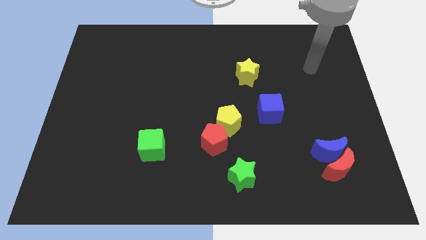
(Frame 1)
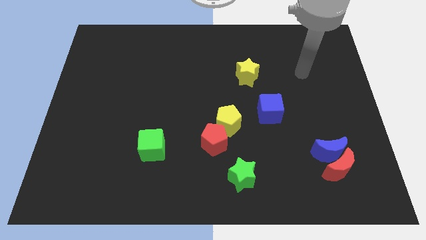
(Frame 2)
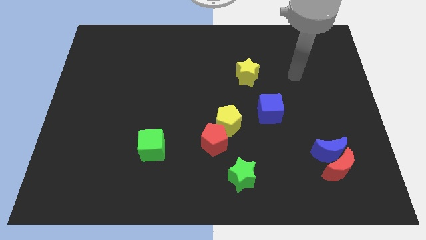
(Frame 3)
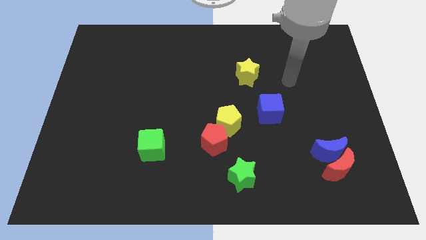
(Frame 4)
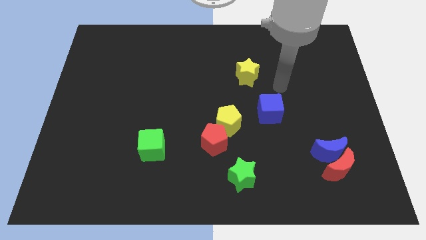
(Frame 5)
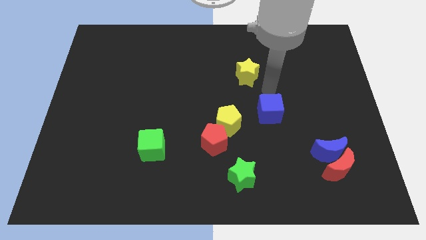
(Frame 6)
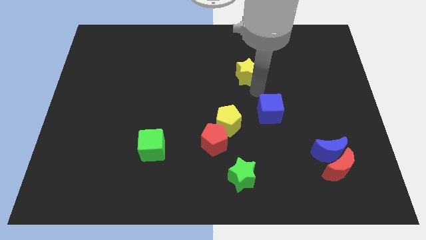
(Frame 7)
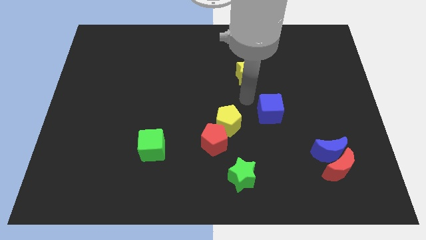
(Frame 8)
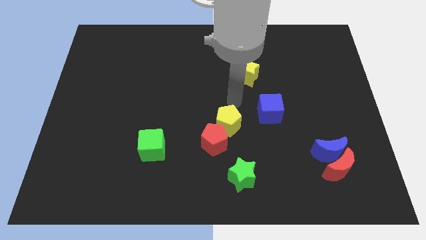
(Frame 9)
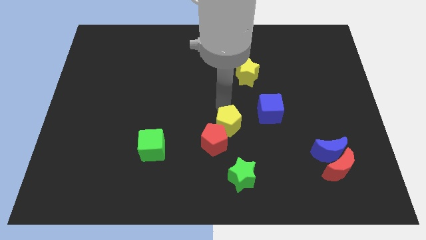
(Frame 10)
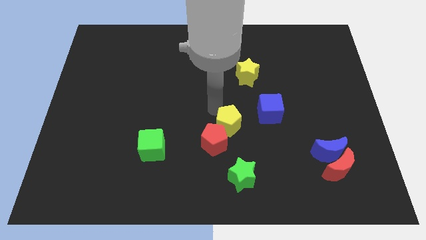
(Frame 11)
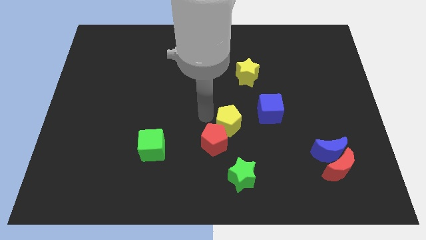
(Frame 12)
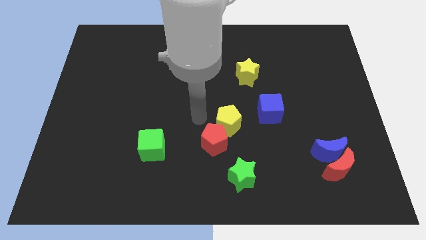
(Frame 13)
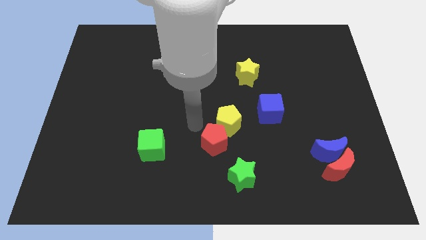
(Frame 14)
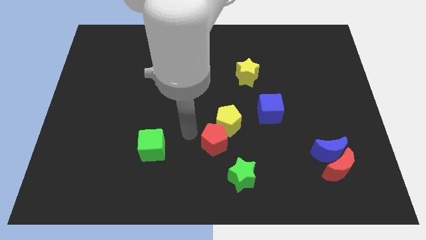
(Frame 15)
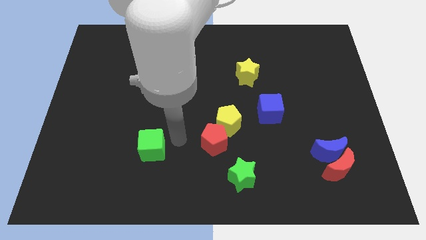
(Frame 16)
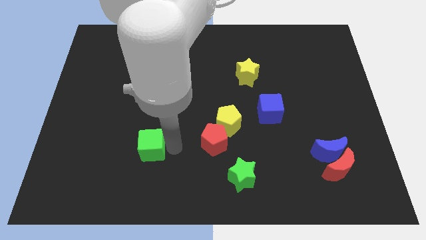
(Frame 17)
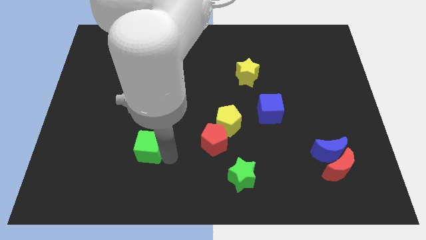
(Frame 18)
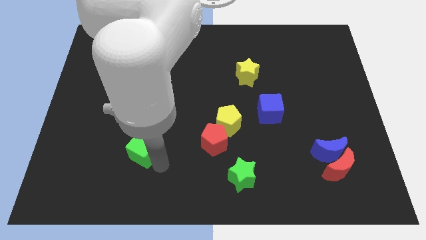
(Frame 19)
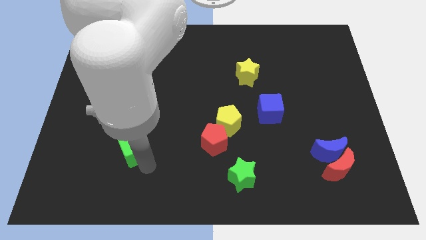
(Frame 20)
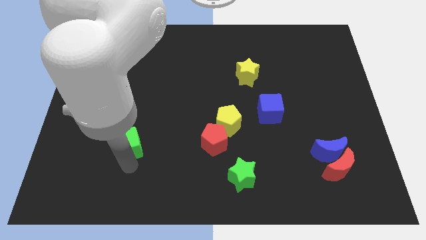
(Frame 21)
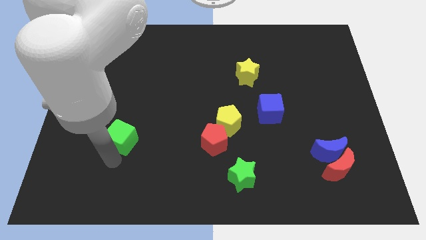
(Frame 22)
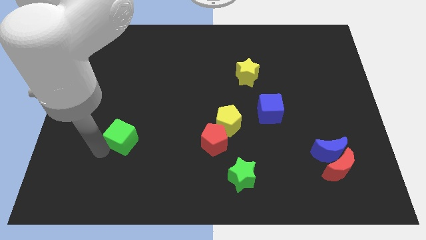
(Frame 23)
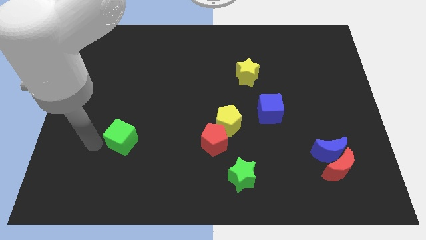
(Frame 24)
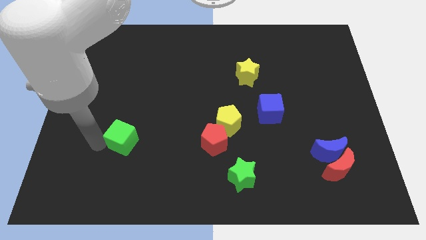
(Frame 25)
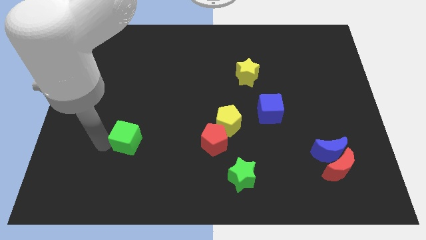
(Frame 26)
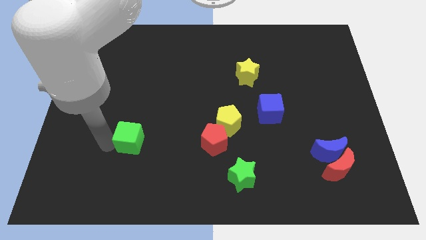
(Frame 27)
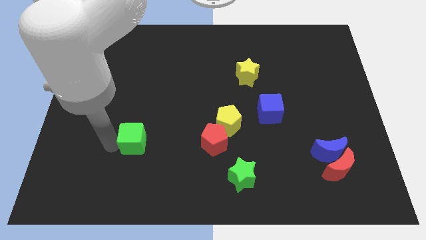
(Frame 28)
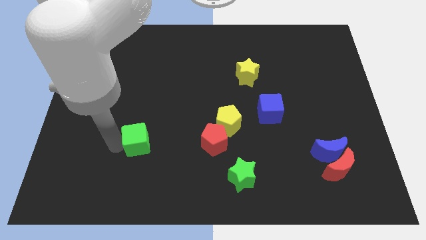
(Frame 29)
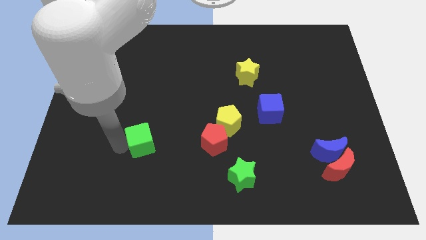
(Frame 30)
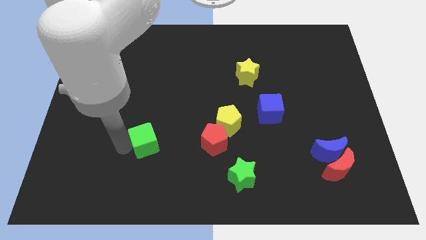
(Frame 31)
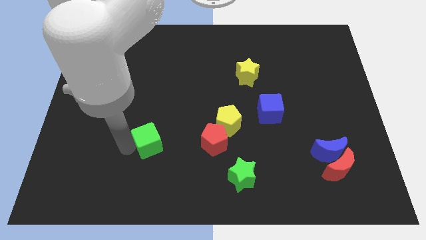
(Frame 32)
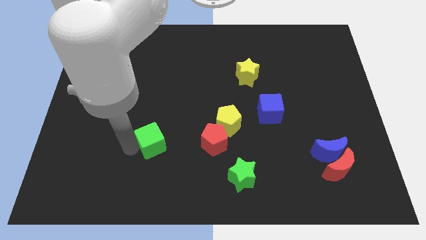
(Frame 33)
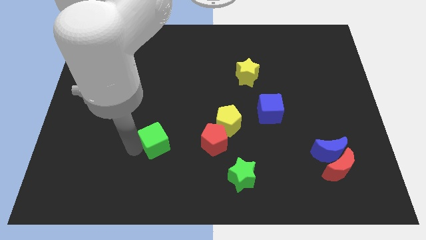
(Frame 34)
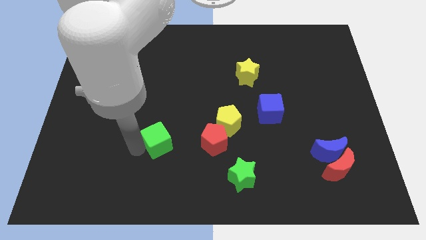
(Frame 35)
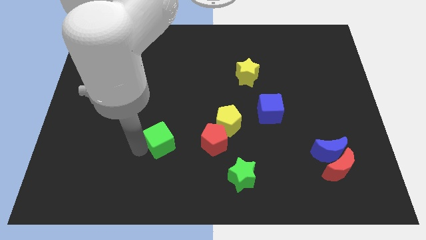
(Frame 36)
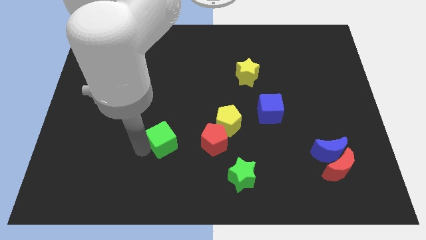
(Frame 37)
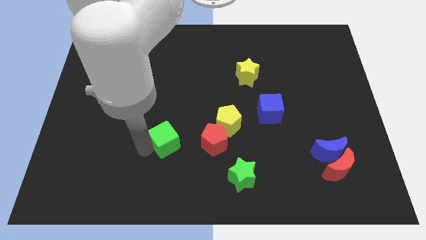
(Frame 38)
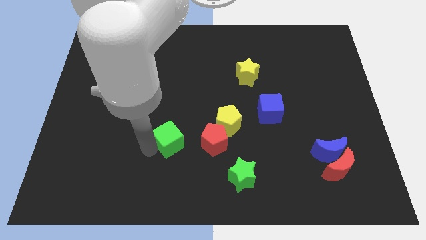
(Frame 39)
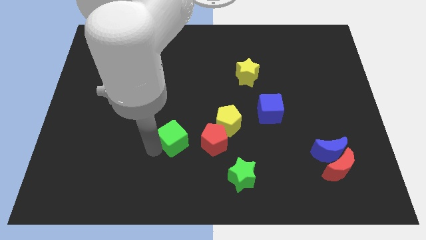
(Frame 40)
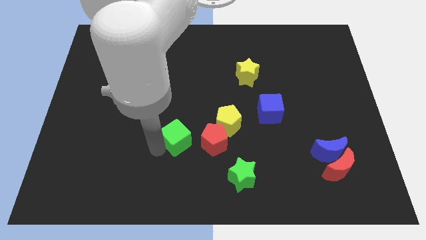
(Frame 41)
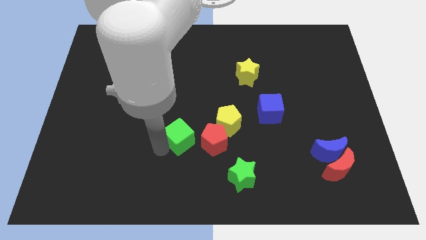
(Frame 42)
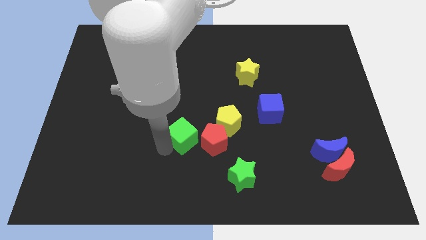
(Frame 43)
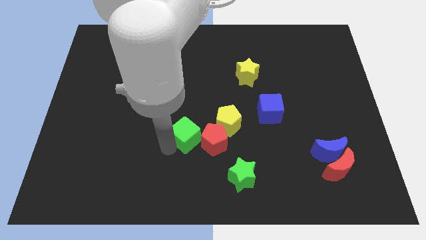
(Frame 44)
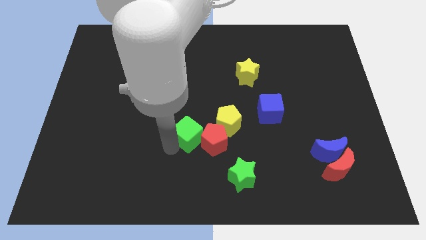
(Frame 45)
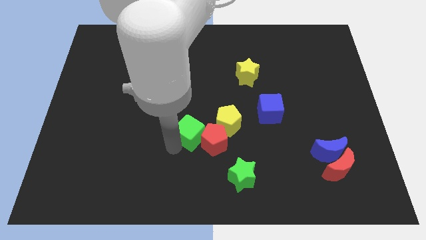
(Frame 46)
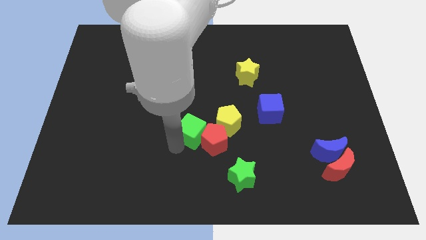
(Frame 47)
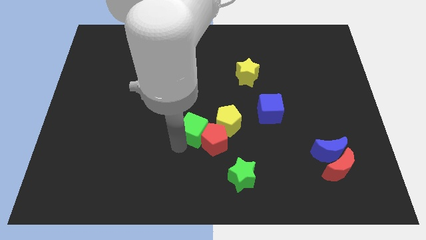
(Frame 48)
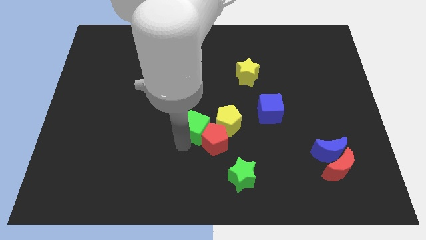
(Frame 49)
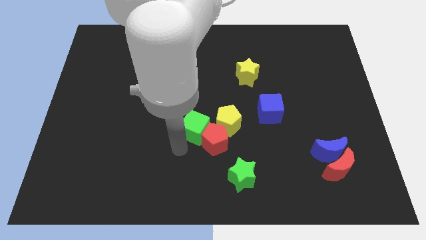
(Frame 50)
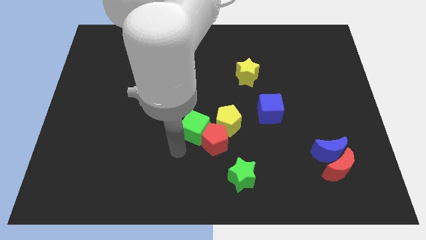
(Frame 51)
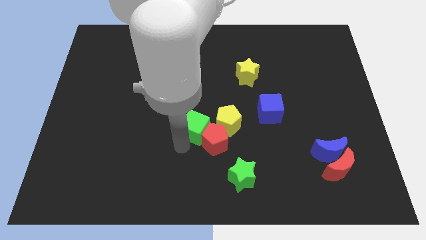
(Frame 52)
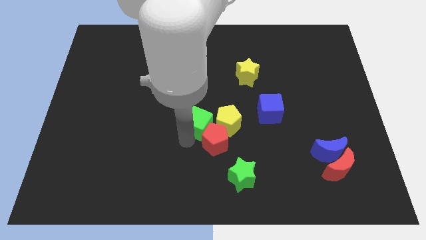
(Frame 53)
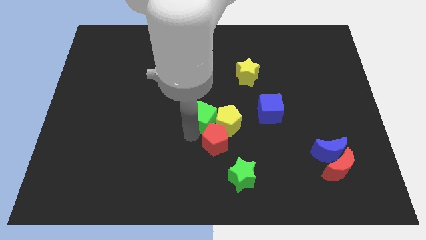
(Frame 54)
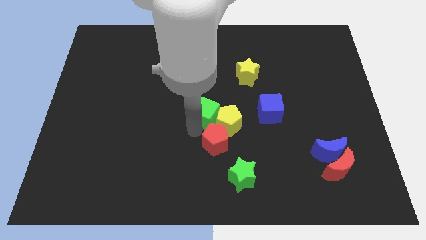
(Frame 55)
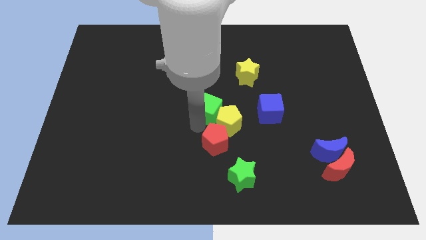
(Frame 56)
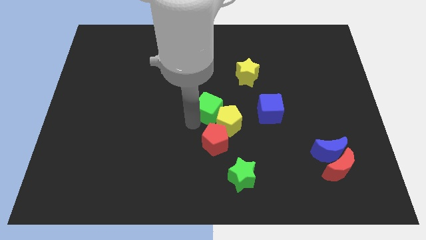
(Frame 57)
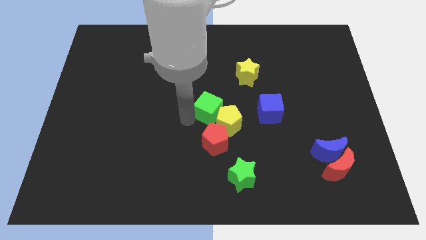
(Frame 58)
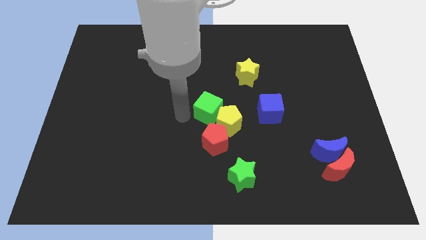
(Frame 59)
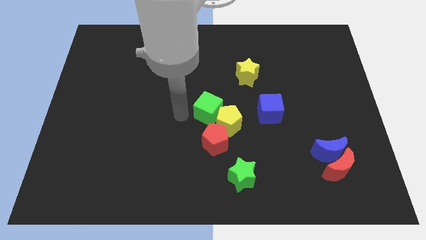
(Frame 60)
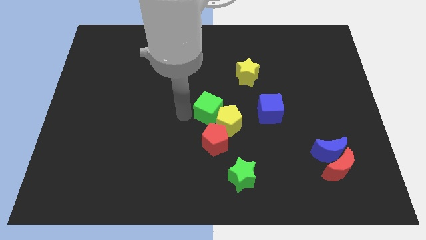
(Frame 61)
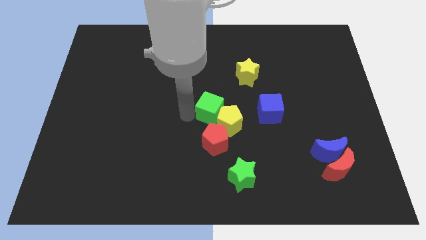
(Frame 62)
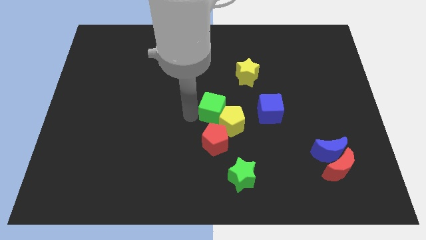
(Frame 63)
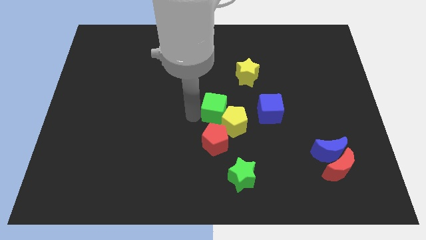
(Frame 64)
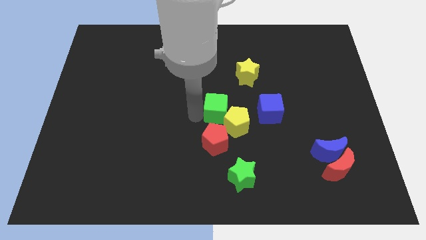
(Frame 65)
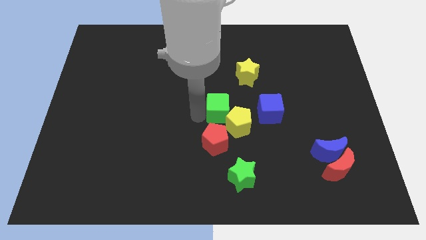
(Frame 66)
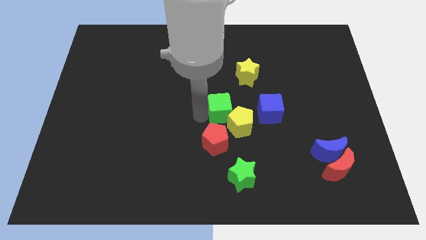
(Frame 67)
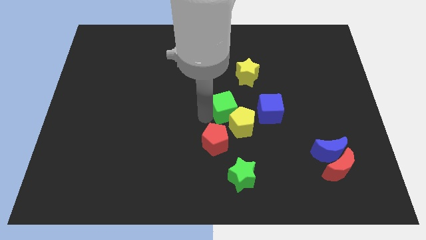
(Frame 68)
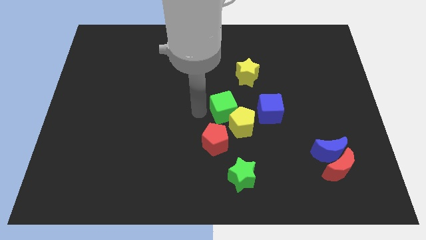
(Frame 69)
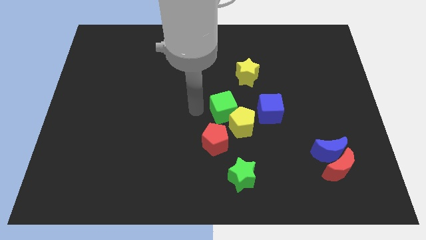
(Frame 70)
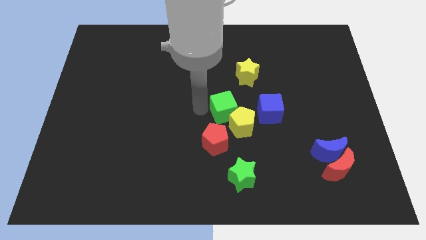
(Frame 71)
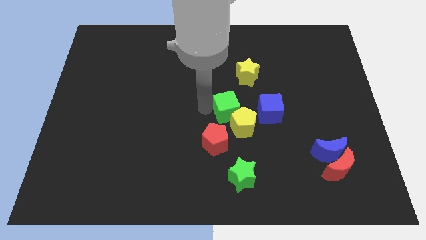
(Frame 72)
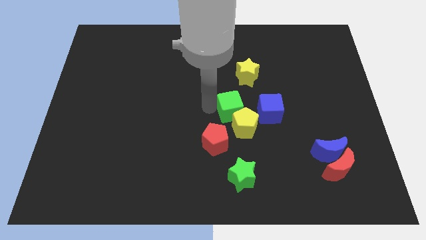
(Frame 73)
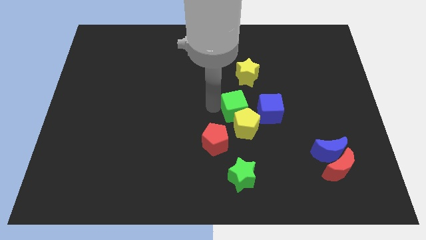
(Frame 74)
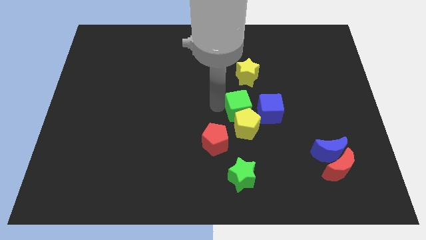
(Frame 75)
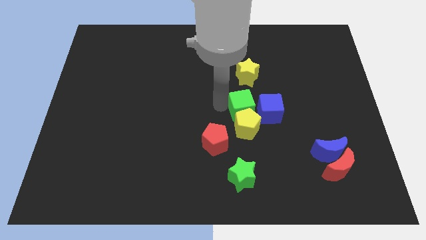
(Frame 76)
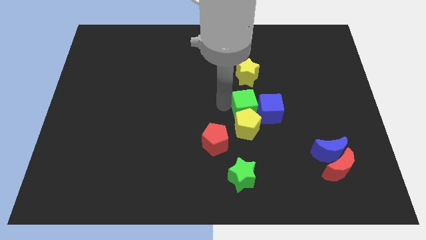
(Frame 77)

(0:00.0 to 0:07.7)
slide the green cube to the blue cube
